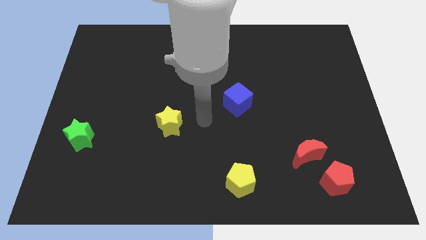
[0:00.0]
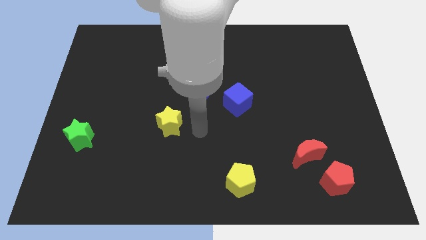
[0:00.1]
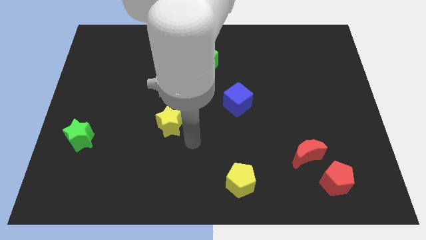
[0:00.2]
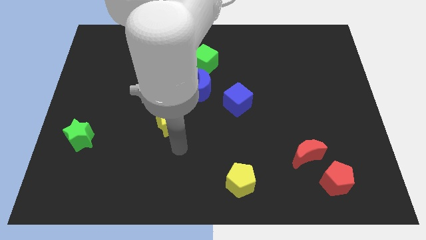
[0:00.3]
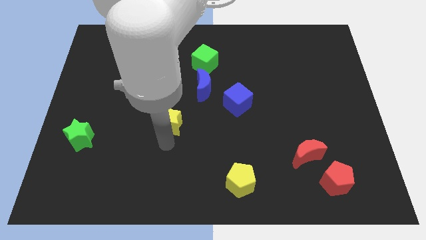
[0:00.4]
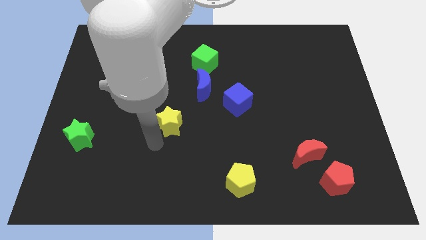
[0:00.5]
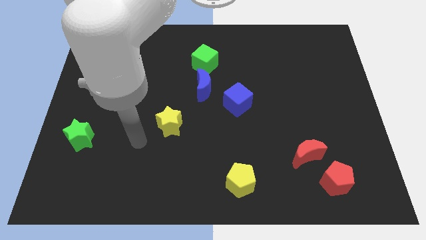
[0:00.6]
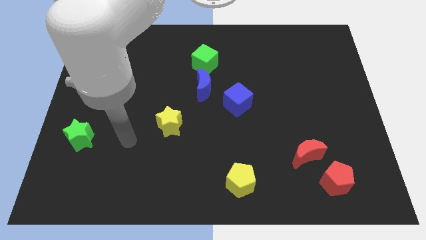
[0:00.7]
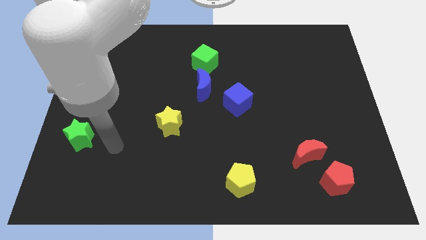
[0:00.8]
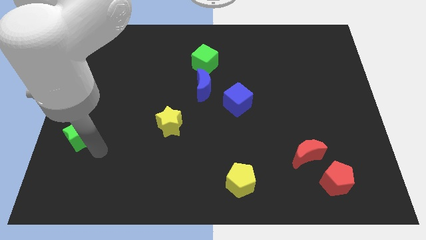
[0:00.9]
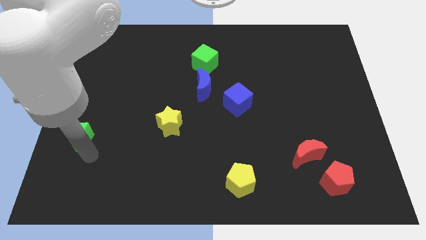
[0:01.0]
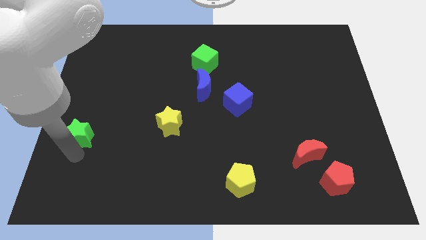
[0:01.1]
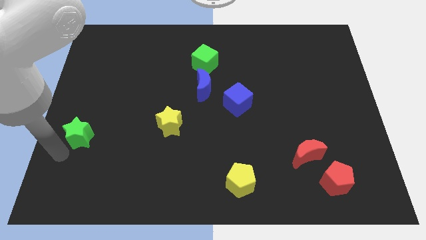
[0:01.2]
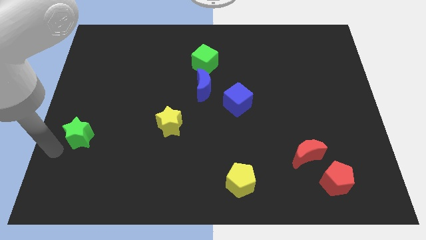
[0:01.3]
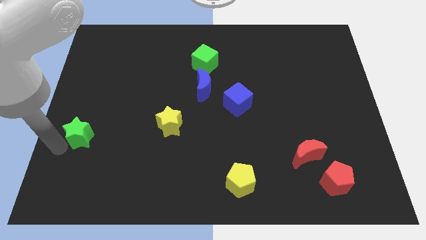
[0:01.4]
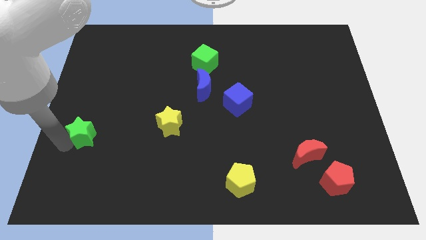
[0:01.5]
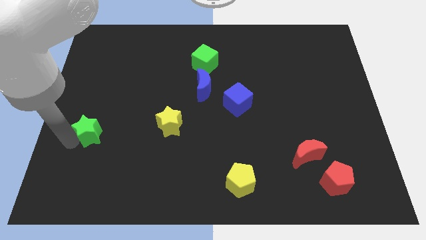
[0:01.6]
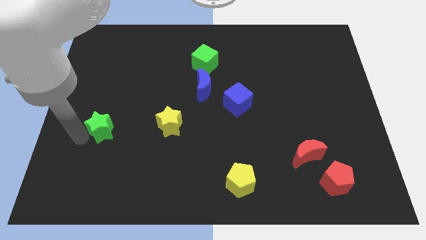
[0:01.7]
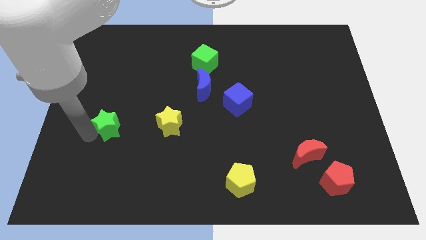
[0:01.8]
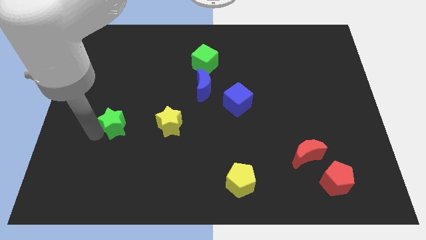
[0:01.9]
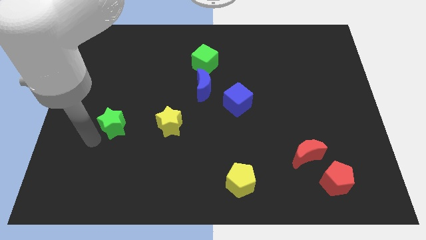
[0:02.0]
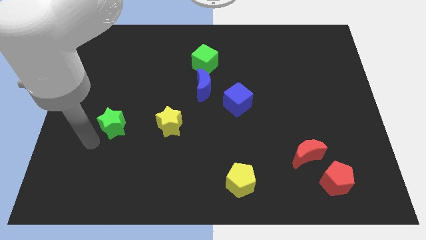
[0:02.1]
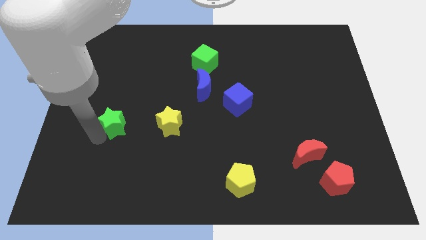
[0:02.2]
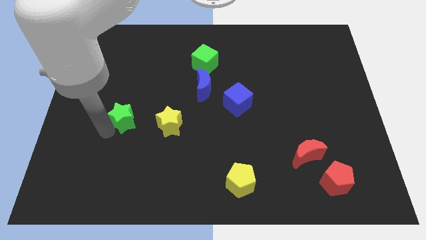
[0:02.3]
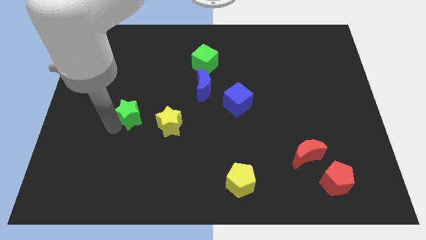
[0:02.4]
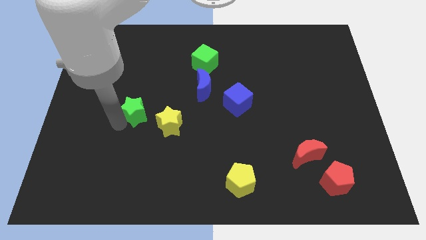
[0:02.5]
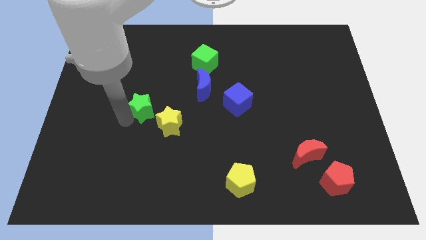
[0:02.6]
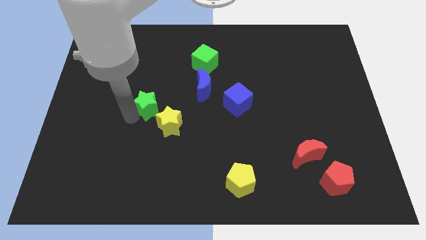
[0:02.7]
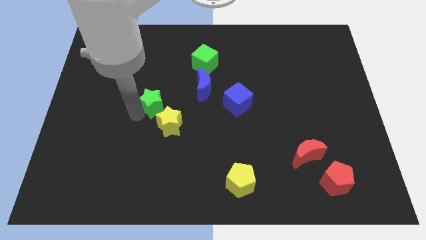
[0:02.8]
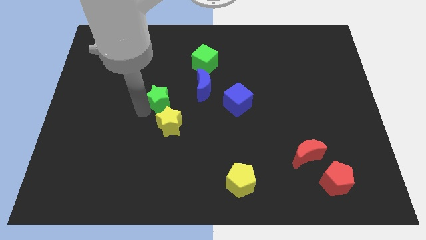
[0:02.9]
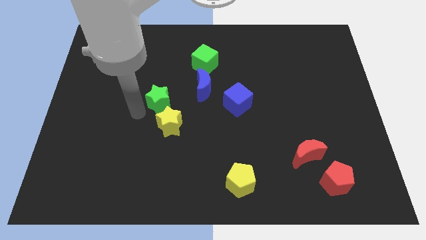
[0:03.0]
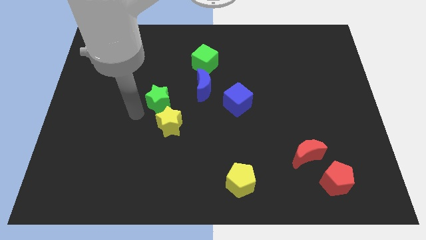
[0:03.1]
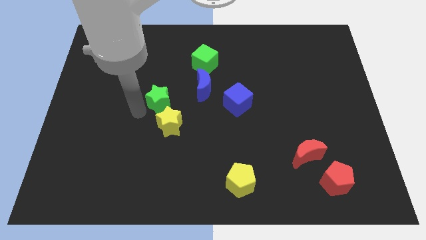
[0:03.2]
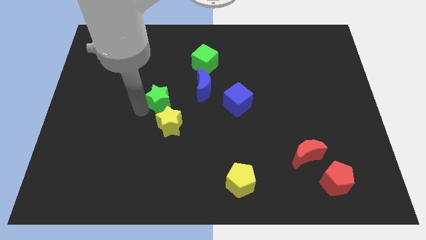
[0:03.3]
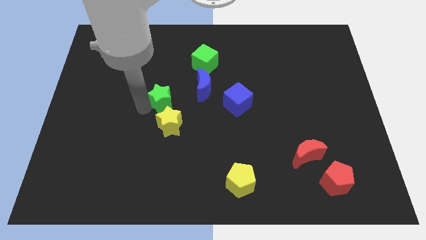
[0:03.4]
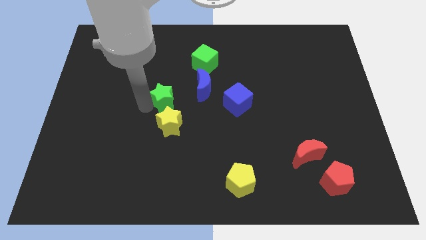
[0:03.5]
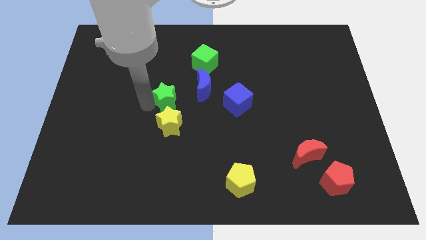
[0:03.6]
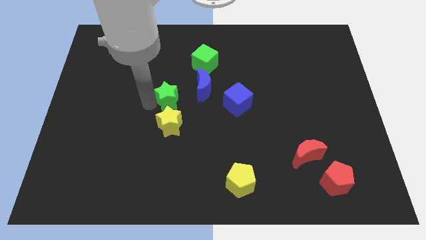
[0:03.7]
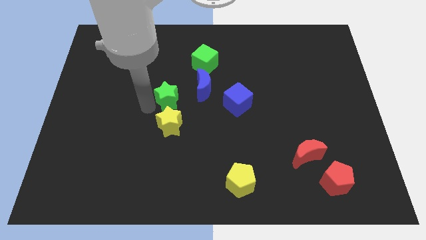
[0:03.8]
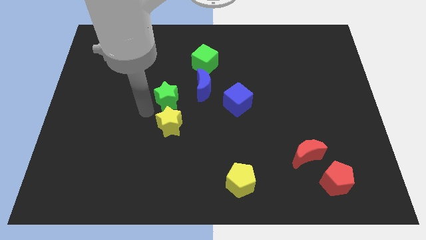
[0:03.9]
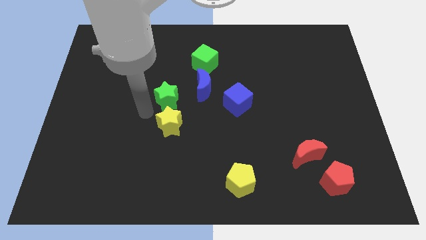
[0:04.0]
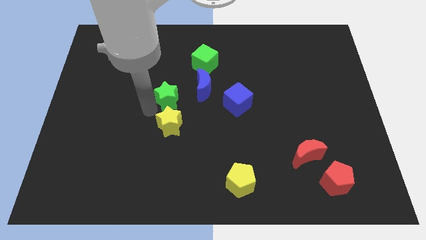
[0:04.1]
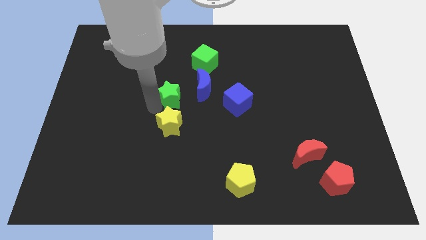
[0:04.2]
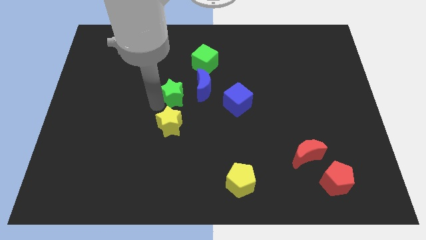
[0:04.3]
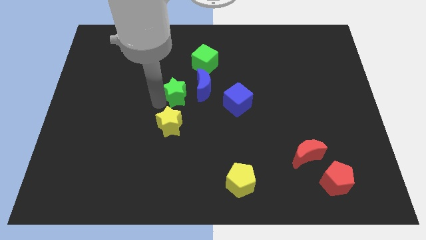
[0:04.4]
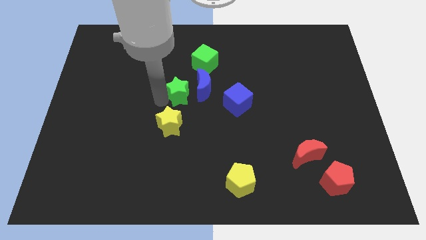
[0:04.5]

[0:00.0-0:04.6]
slide the green star next to the blue moon

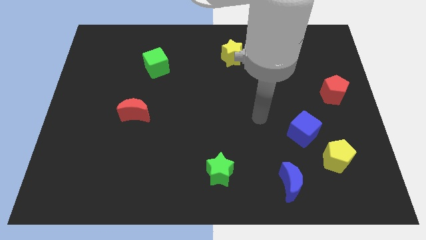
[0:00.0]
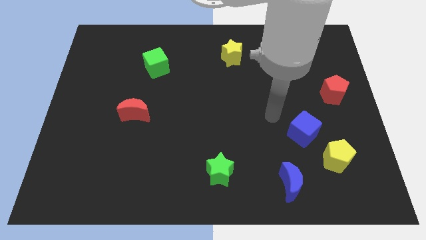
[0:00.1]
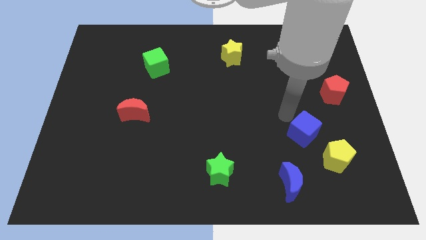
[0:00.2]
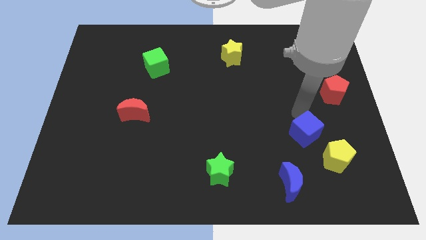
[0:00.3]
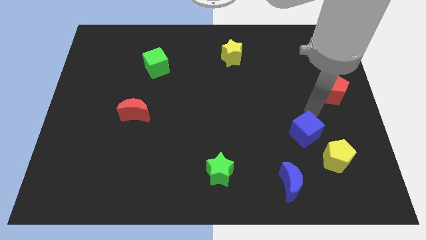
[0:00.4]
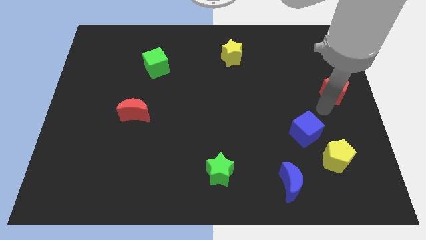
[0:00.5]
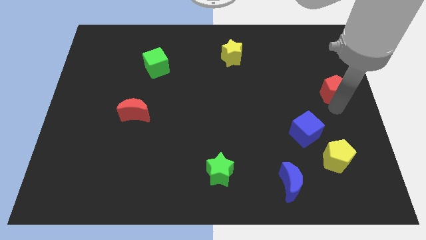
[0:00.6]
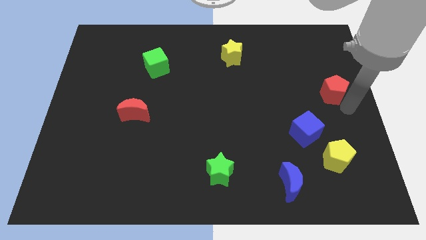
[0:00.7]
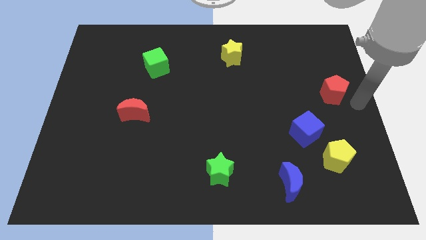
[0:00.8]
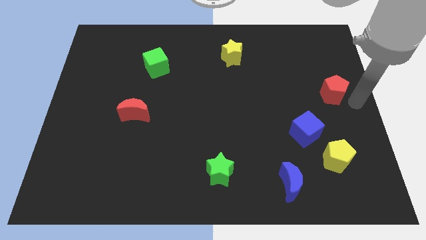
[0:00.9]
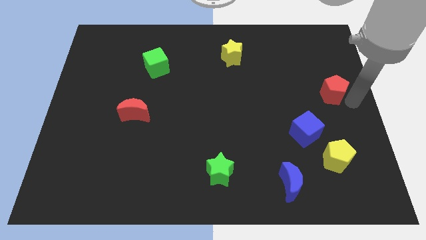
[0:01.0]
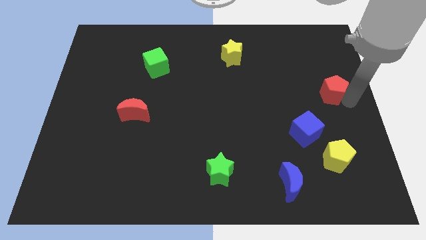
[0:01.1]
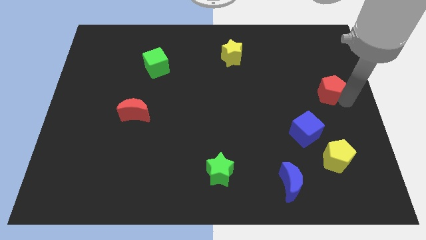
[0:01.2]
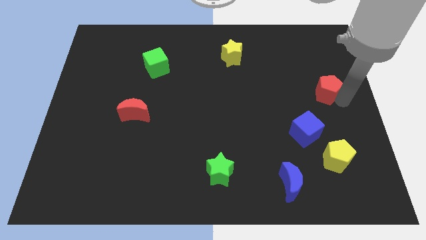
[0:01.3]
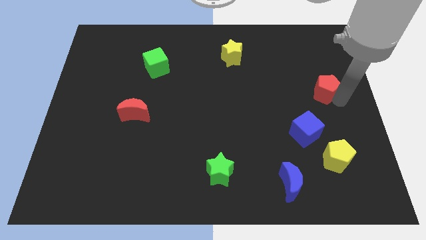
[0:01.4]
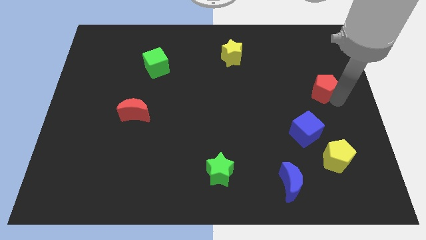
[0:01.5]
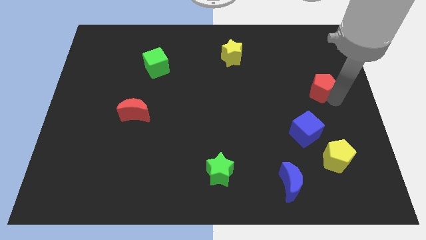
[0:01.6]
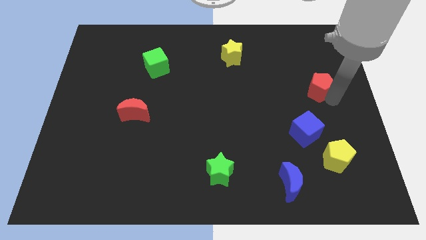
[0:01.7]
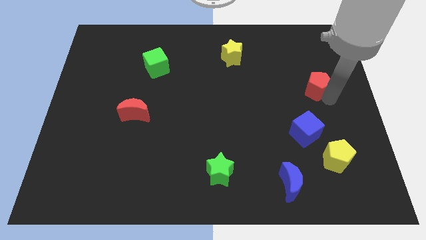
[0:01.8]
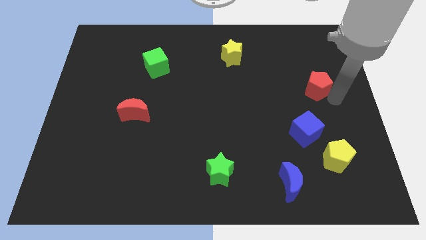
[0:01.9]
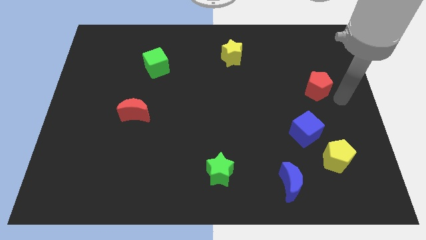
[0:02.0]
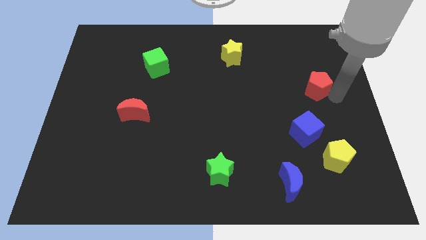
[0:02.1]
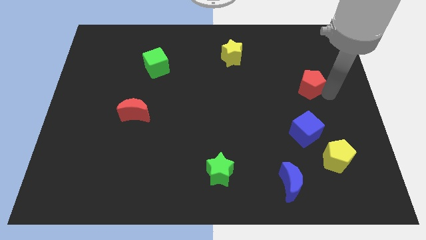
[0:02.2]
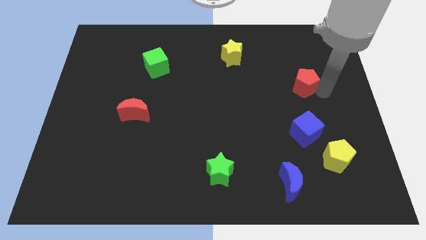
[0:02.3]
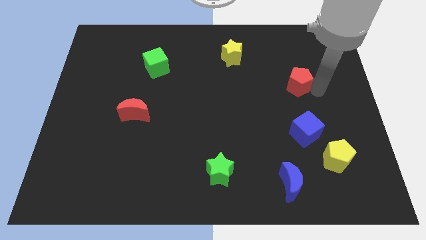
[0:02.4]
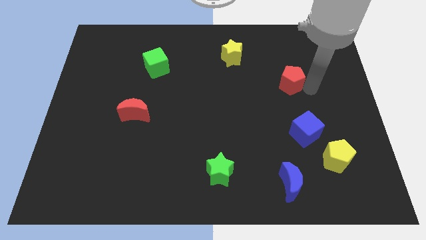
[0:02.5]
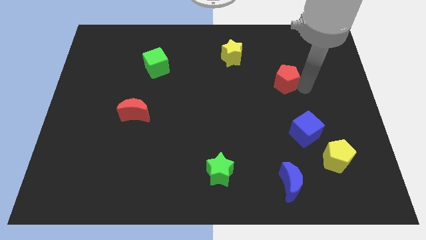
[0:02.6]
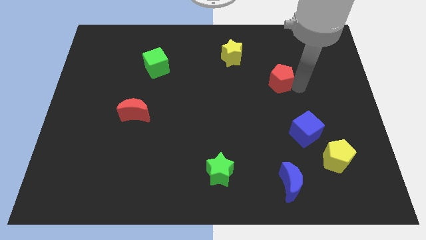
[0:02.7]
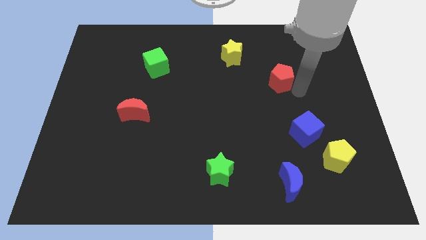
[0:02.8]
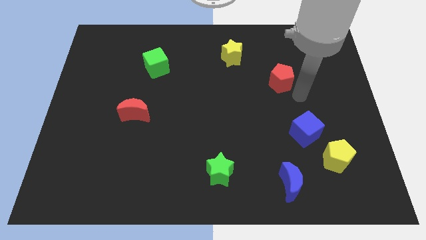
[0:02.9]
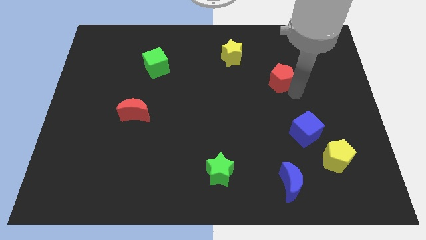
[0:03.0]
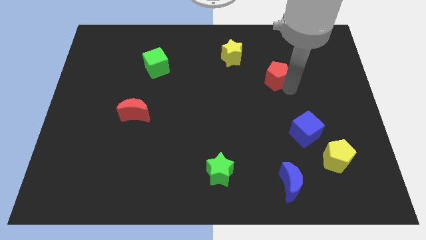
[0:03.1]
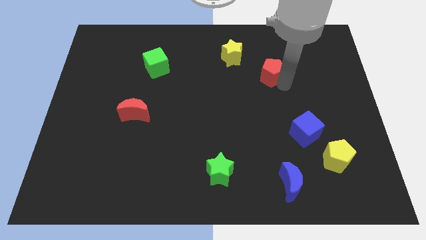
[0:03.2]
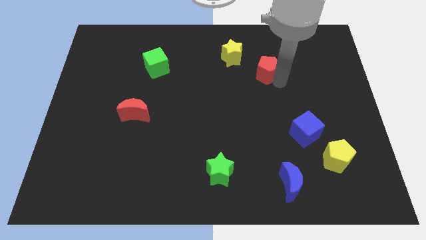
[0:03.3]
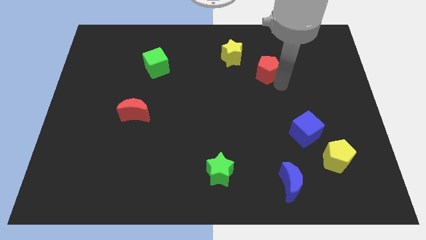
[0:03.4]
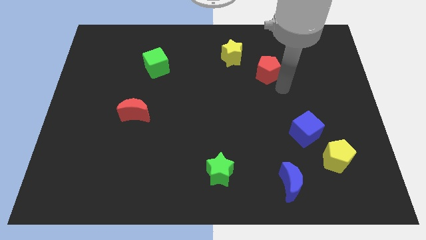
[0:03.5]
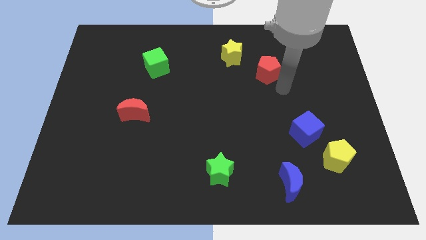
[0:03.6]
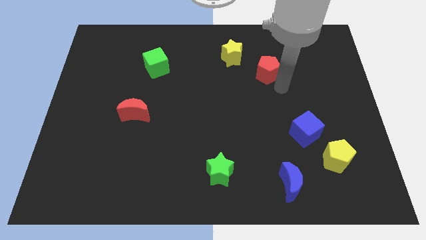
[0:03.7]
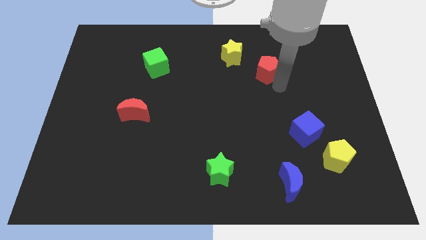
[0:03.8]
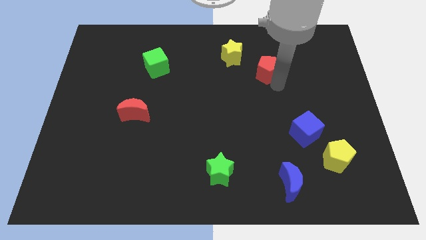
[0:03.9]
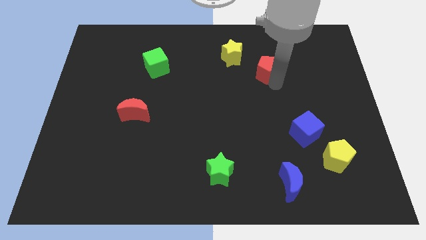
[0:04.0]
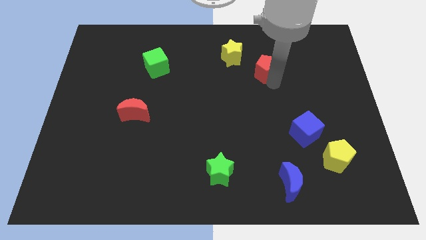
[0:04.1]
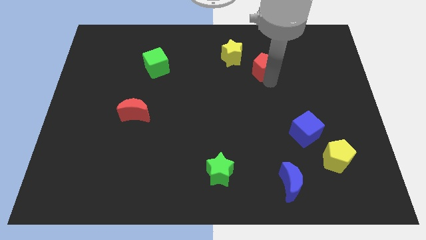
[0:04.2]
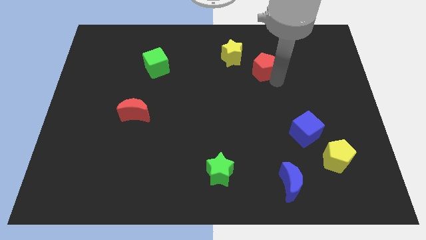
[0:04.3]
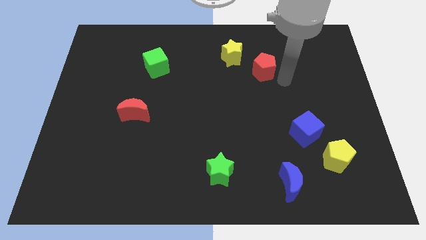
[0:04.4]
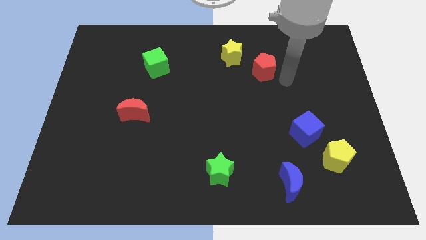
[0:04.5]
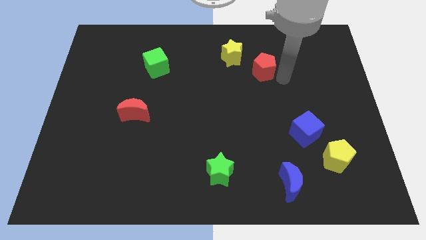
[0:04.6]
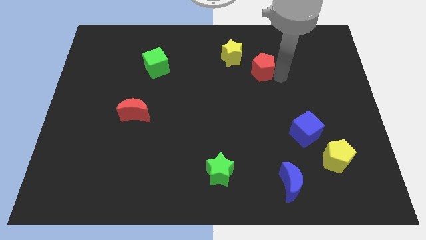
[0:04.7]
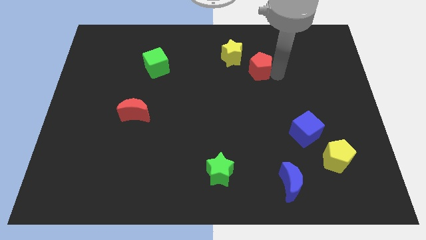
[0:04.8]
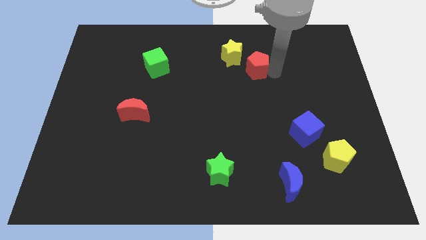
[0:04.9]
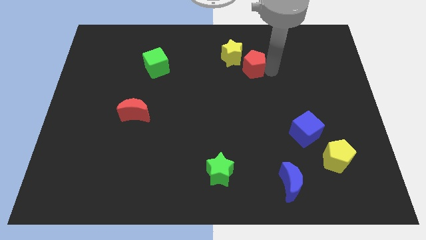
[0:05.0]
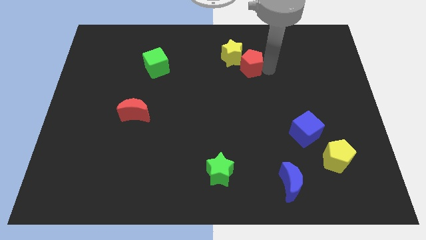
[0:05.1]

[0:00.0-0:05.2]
slide the red pentagon towards the yellow star
